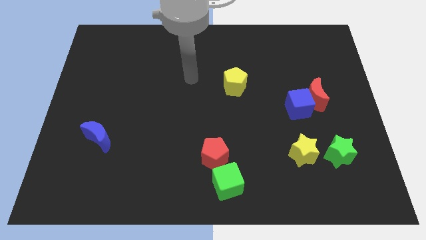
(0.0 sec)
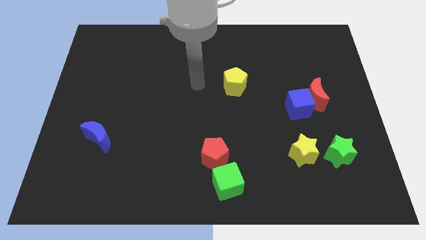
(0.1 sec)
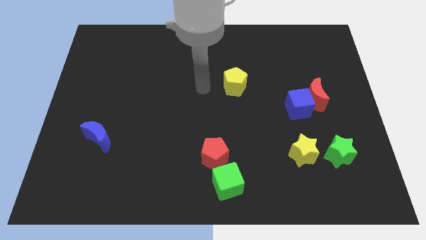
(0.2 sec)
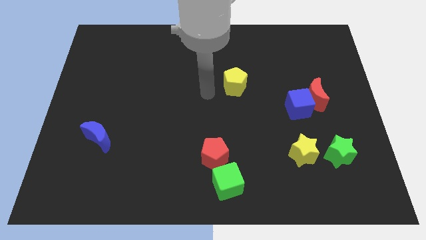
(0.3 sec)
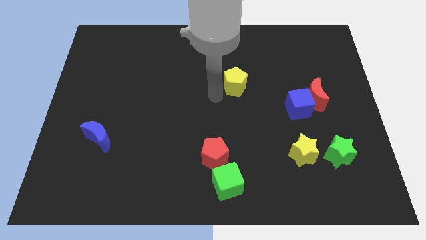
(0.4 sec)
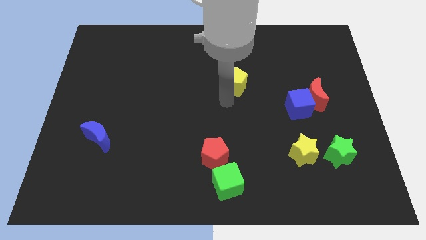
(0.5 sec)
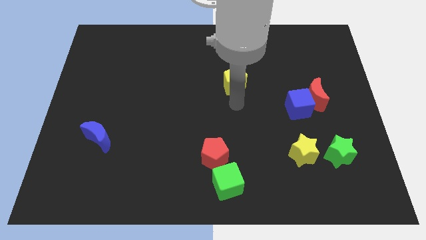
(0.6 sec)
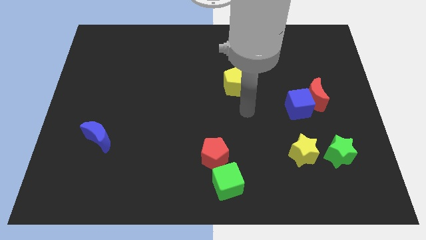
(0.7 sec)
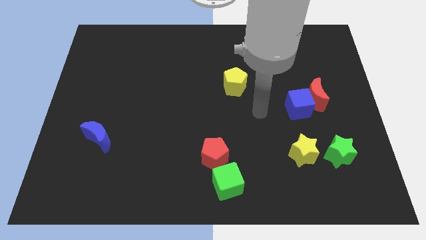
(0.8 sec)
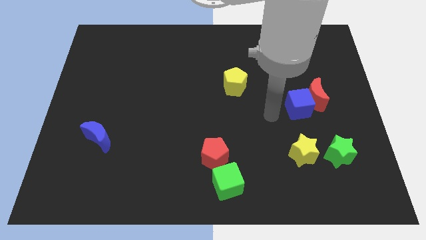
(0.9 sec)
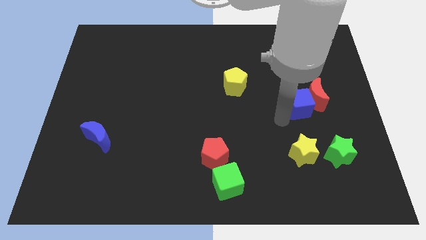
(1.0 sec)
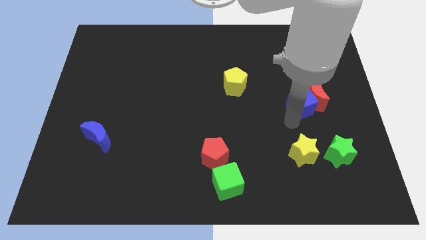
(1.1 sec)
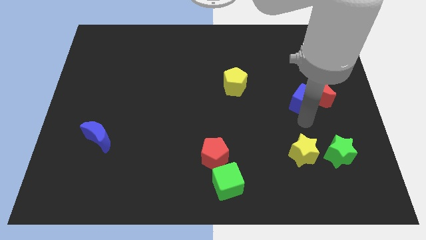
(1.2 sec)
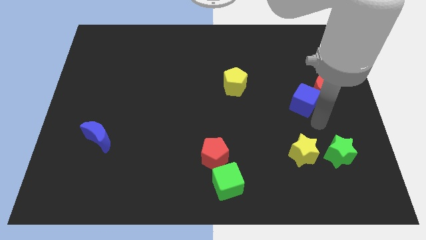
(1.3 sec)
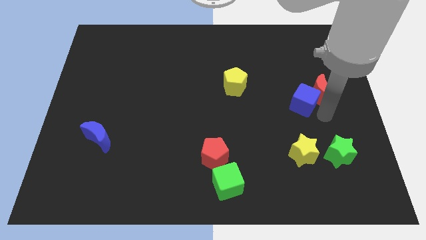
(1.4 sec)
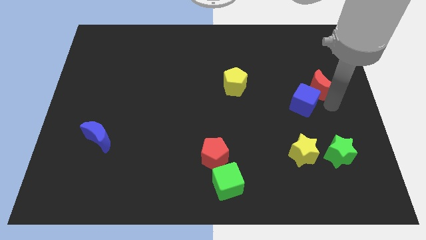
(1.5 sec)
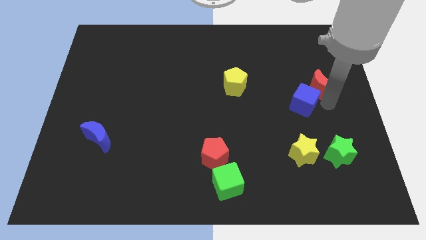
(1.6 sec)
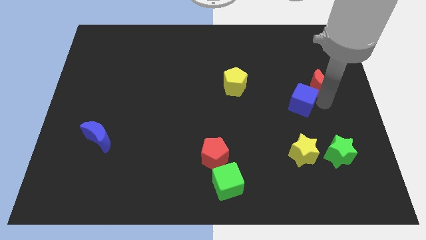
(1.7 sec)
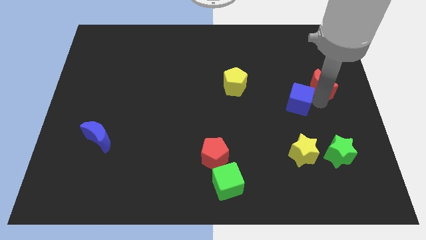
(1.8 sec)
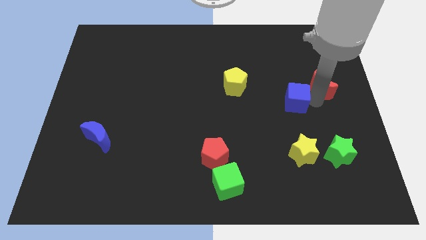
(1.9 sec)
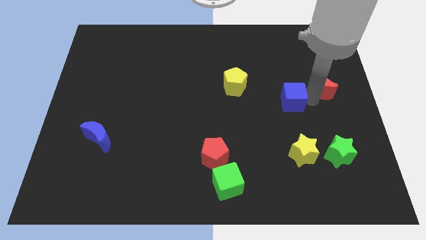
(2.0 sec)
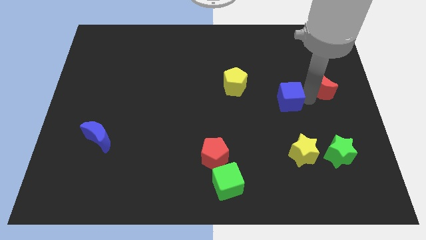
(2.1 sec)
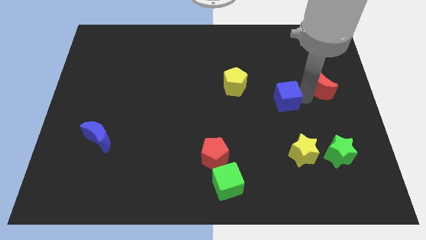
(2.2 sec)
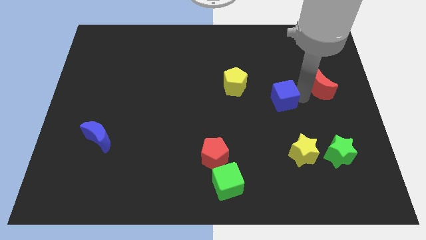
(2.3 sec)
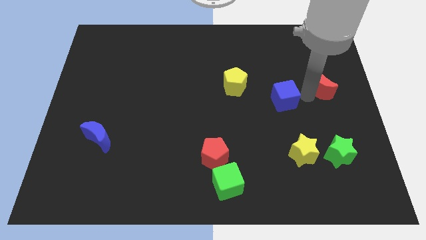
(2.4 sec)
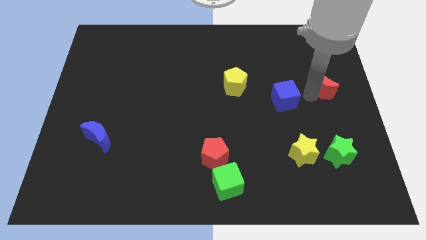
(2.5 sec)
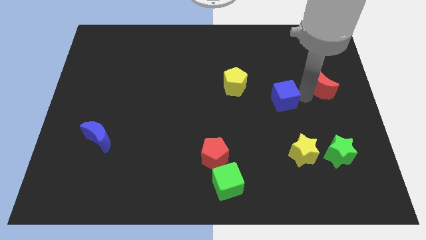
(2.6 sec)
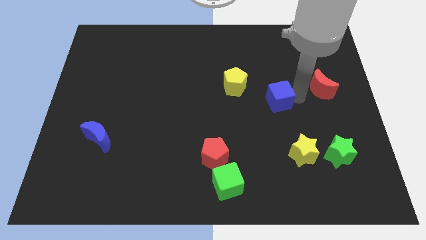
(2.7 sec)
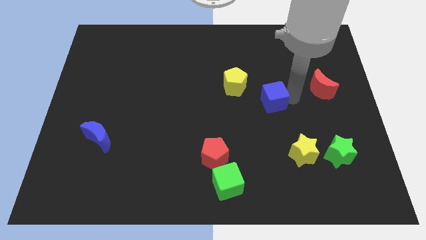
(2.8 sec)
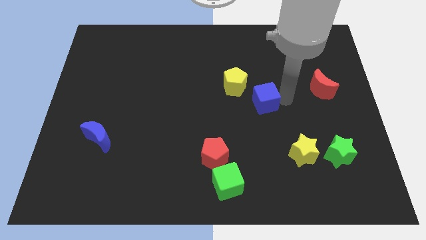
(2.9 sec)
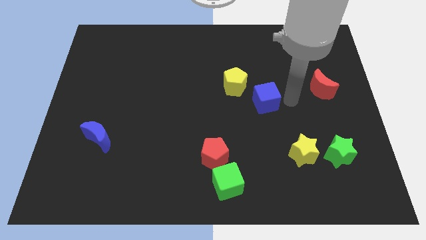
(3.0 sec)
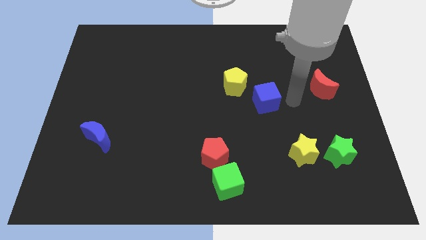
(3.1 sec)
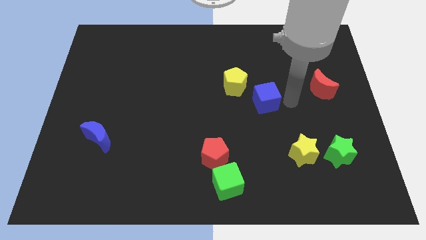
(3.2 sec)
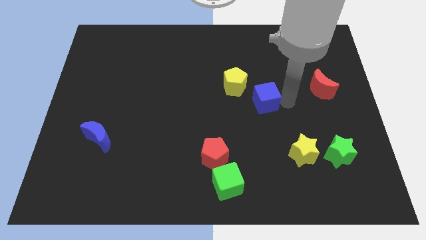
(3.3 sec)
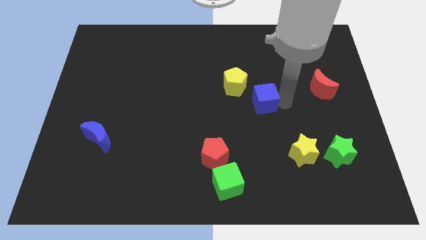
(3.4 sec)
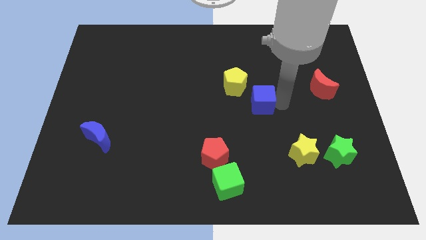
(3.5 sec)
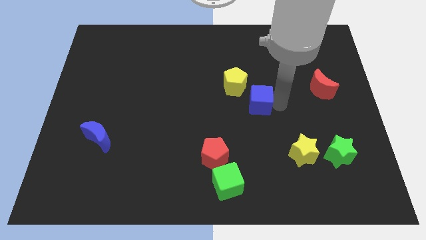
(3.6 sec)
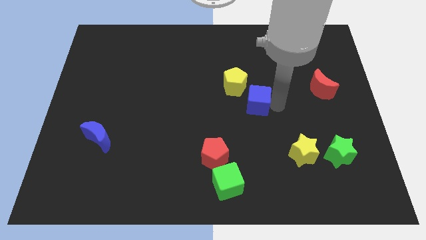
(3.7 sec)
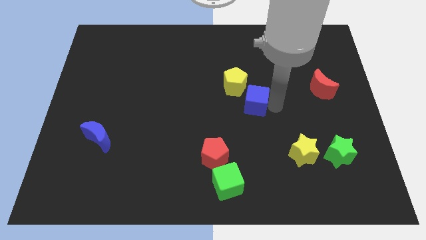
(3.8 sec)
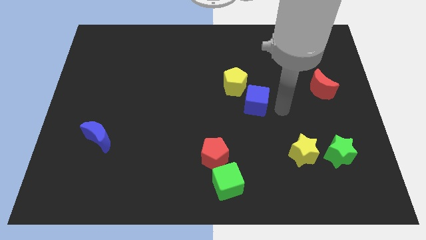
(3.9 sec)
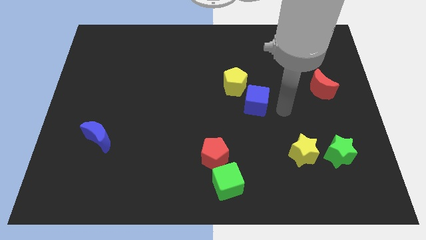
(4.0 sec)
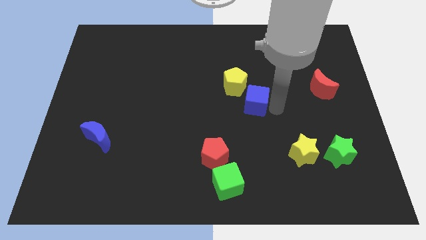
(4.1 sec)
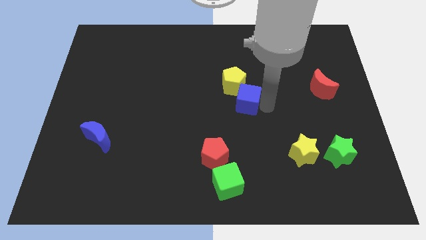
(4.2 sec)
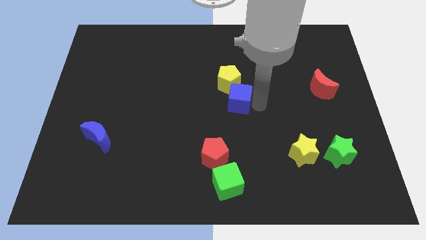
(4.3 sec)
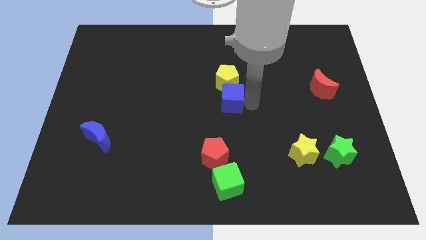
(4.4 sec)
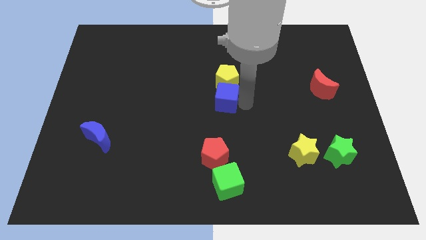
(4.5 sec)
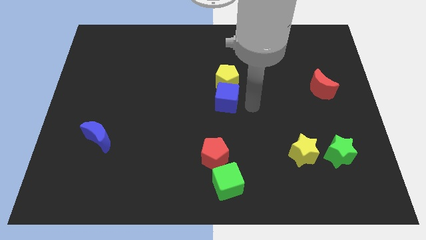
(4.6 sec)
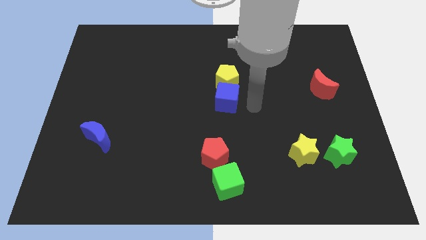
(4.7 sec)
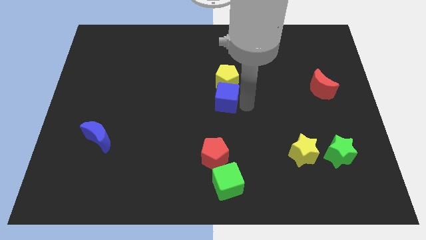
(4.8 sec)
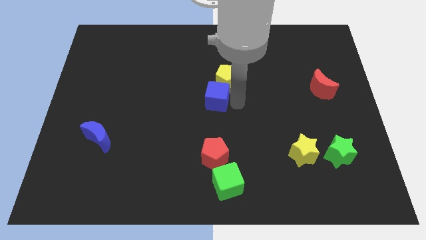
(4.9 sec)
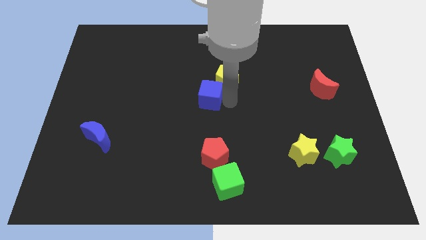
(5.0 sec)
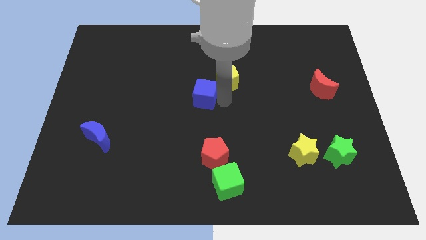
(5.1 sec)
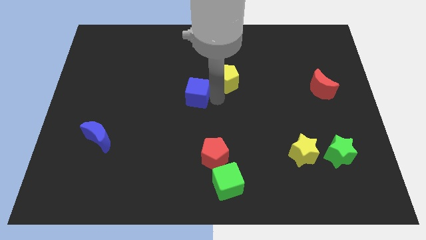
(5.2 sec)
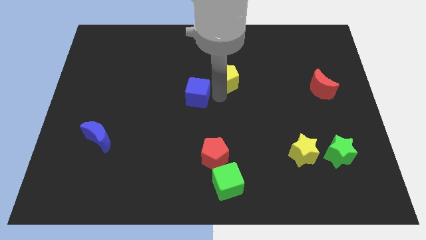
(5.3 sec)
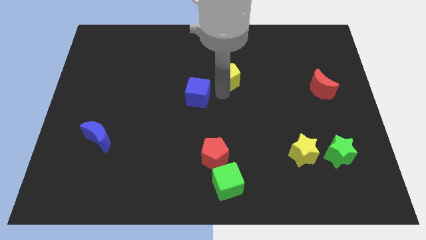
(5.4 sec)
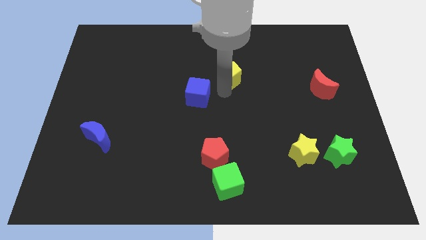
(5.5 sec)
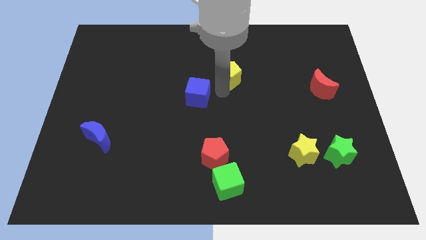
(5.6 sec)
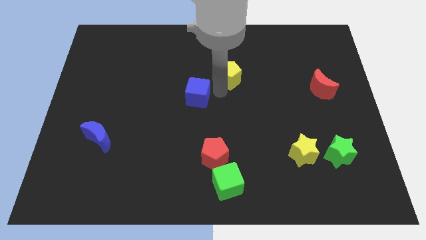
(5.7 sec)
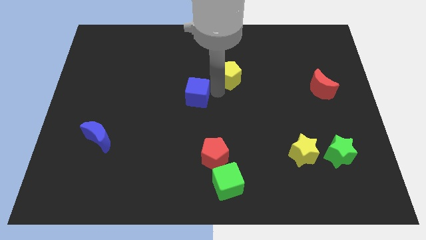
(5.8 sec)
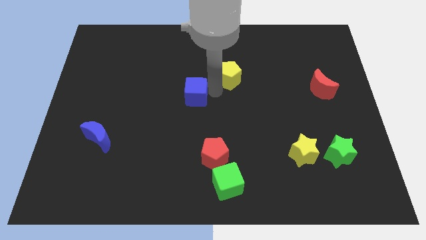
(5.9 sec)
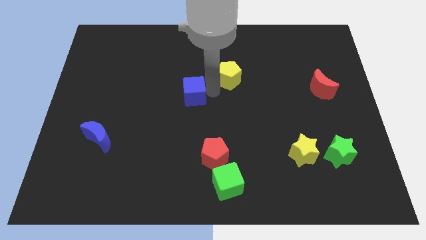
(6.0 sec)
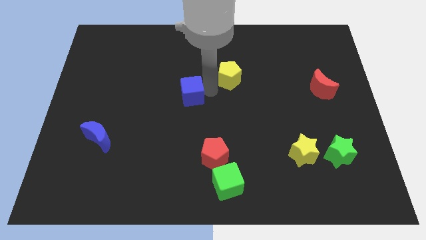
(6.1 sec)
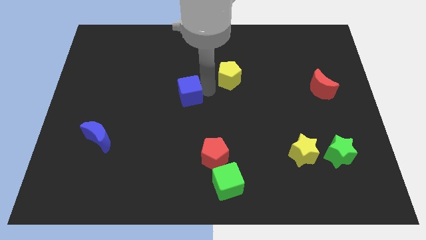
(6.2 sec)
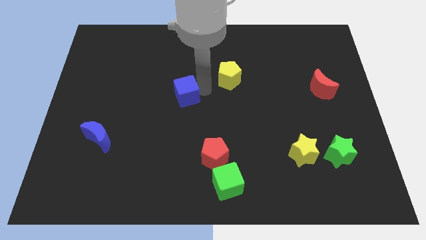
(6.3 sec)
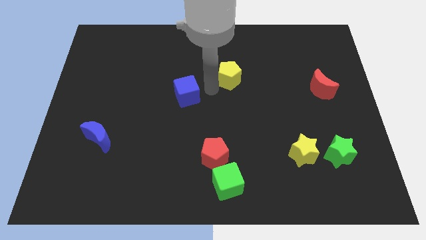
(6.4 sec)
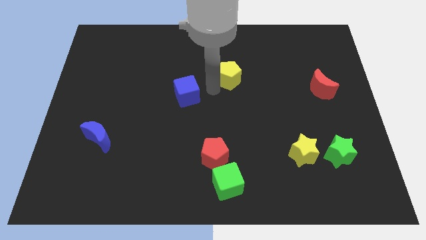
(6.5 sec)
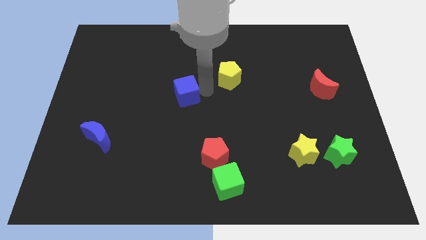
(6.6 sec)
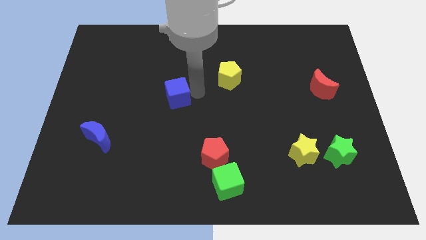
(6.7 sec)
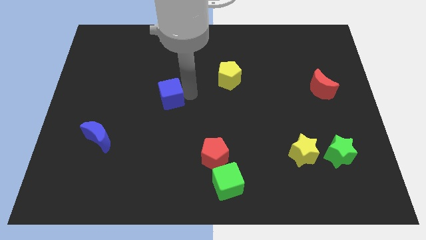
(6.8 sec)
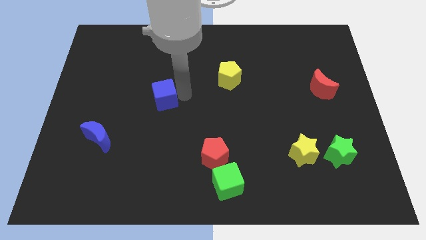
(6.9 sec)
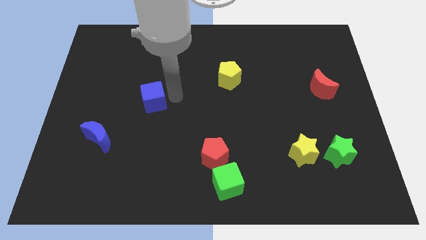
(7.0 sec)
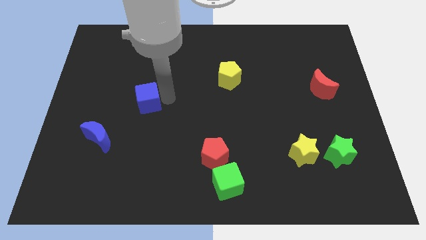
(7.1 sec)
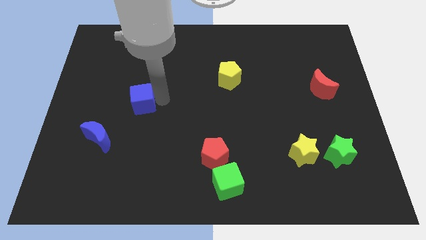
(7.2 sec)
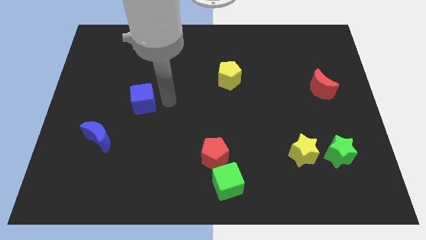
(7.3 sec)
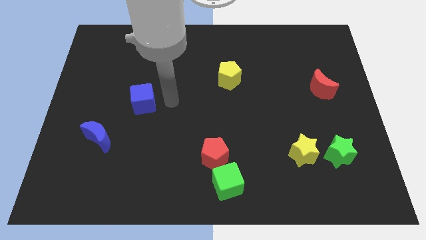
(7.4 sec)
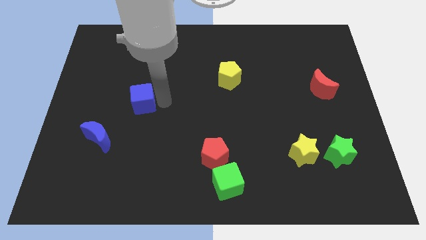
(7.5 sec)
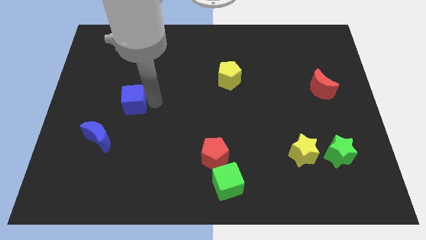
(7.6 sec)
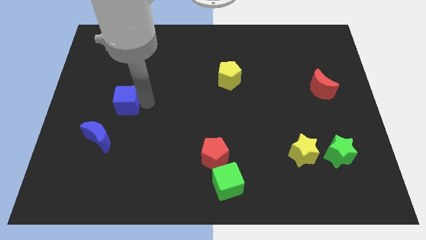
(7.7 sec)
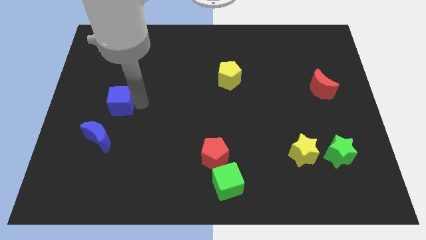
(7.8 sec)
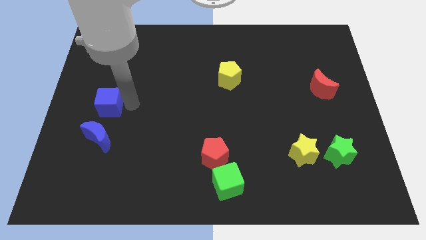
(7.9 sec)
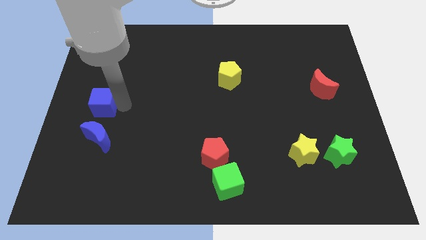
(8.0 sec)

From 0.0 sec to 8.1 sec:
slide the blue cube to the center left
